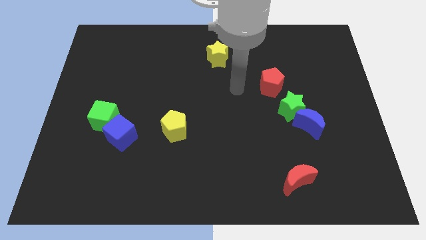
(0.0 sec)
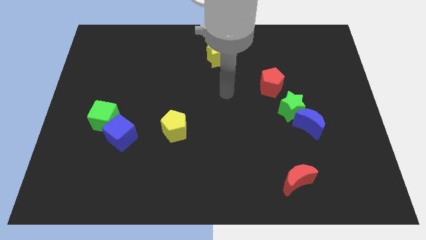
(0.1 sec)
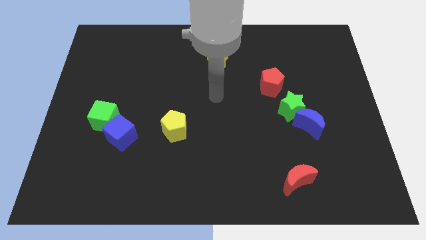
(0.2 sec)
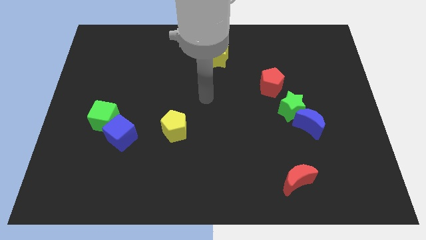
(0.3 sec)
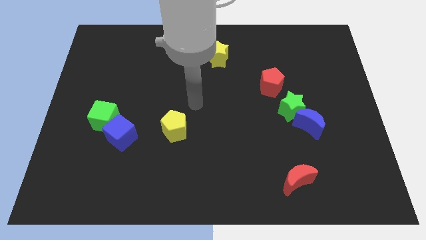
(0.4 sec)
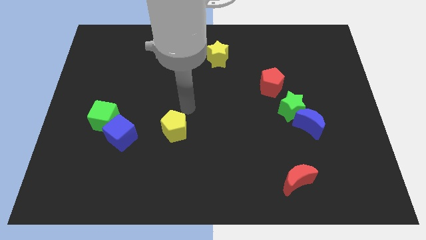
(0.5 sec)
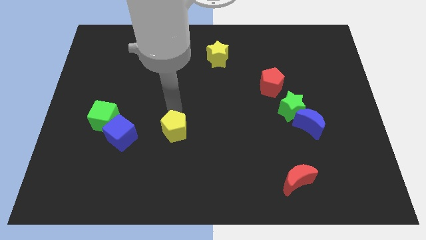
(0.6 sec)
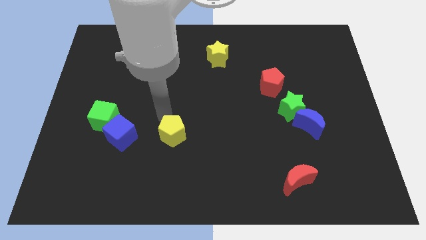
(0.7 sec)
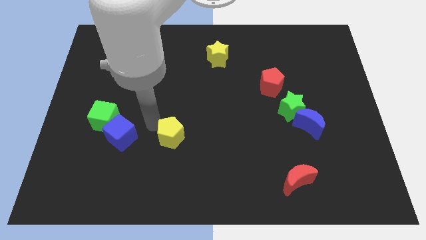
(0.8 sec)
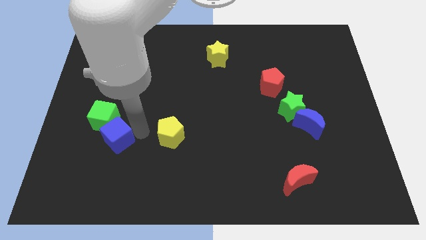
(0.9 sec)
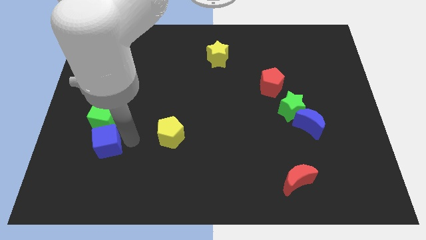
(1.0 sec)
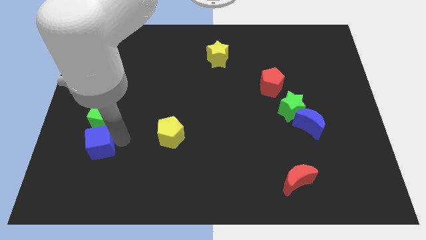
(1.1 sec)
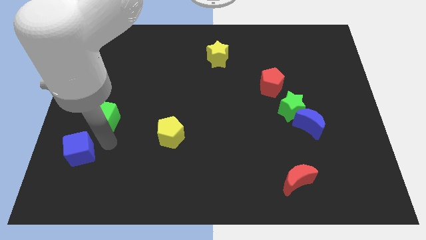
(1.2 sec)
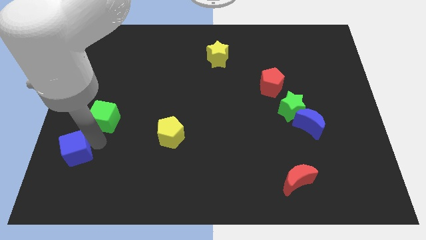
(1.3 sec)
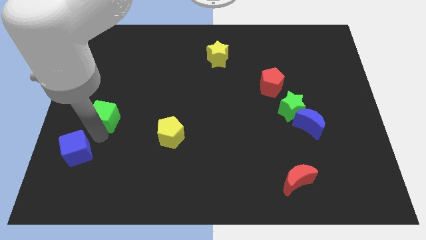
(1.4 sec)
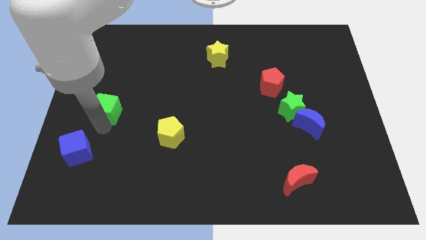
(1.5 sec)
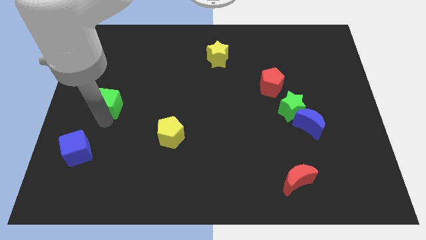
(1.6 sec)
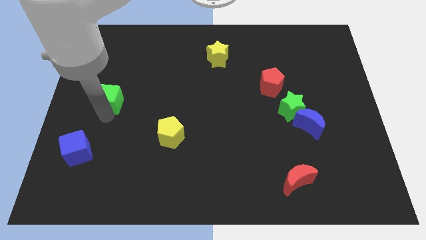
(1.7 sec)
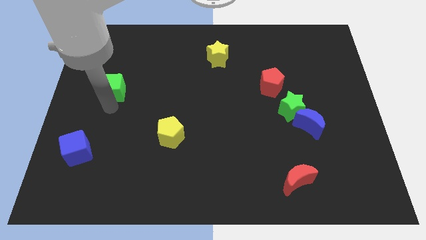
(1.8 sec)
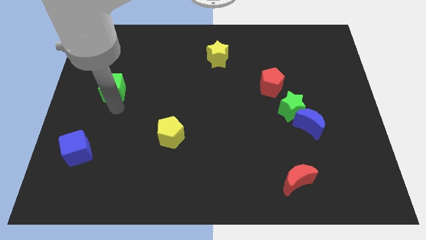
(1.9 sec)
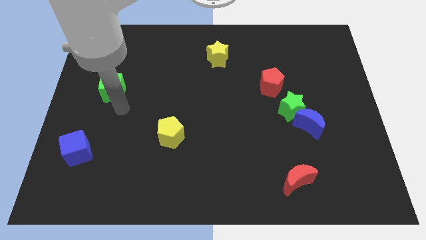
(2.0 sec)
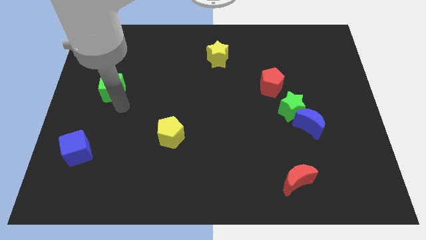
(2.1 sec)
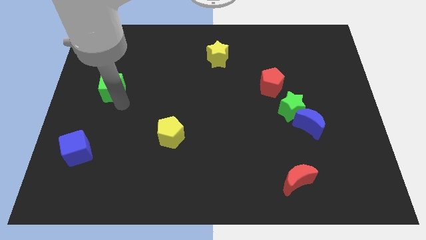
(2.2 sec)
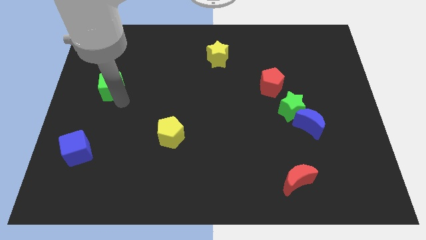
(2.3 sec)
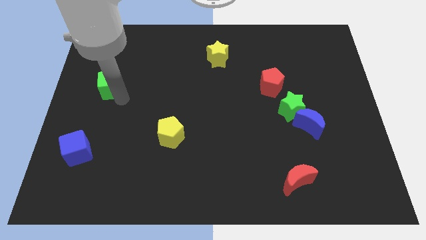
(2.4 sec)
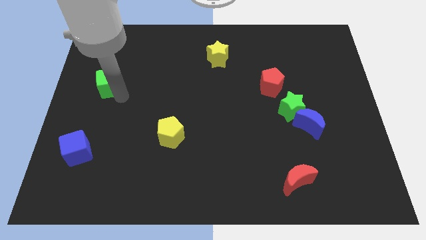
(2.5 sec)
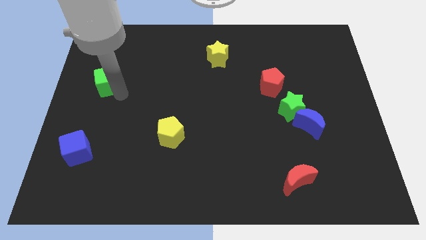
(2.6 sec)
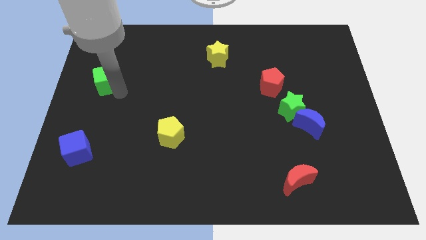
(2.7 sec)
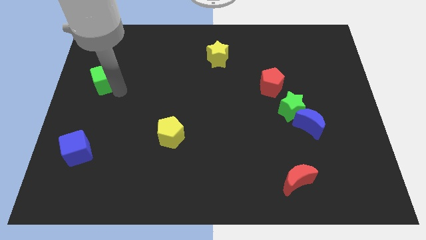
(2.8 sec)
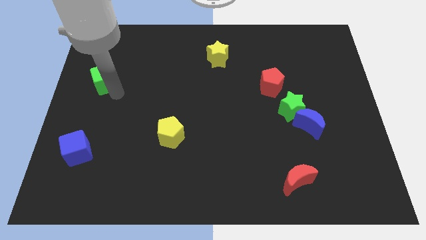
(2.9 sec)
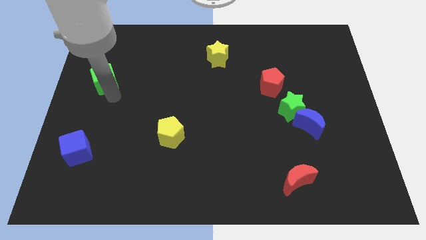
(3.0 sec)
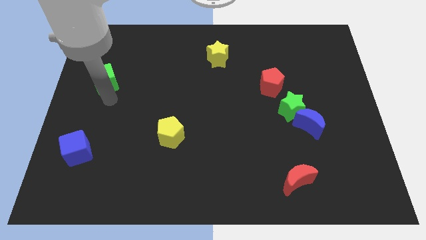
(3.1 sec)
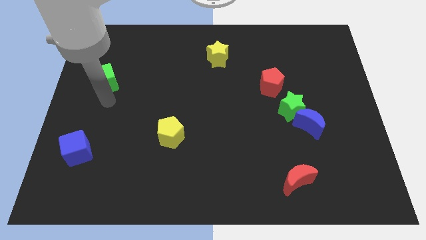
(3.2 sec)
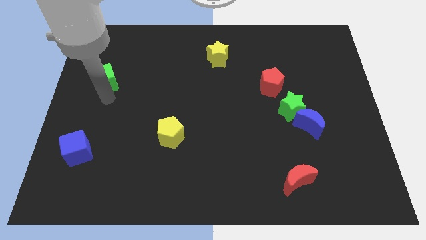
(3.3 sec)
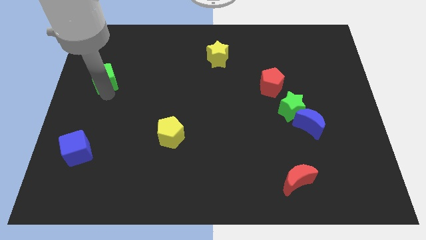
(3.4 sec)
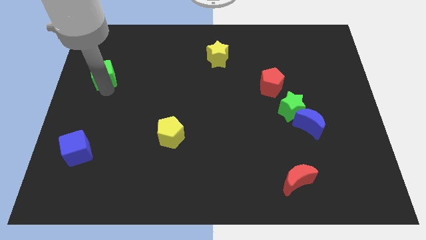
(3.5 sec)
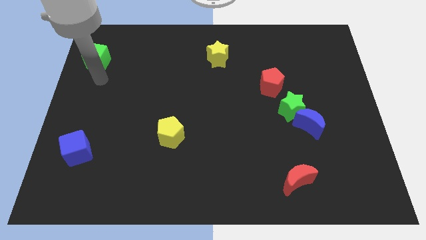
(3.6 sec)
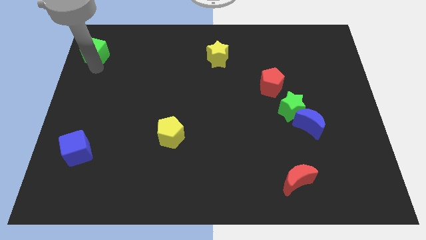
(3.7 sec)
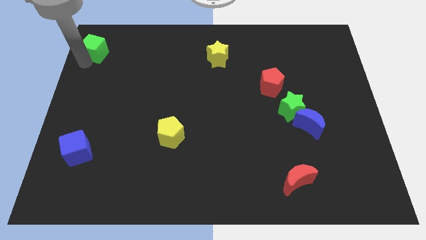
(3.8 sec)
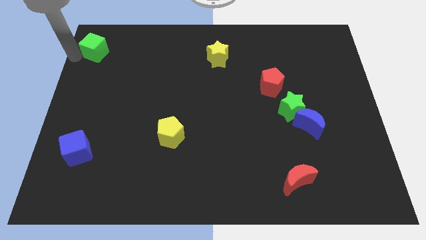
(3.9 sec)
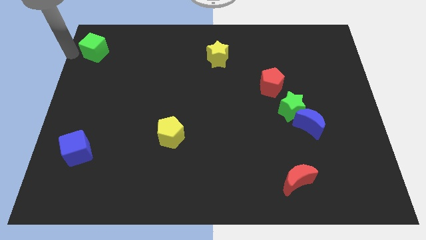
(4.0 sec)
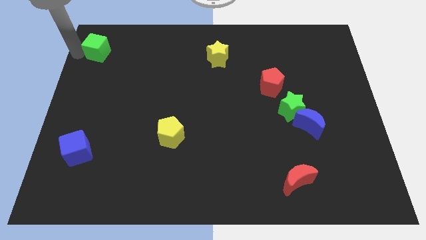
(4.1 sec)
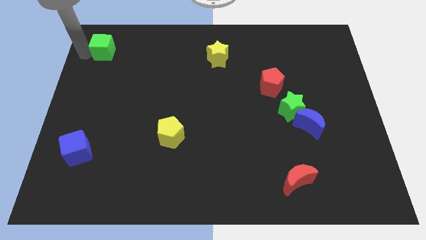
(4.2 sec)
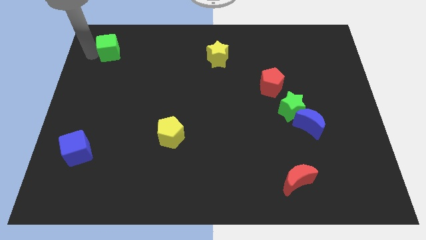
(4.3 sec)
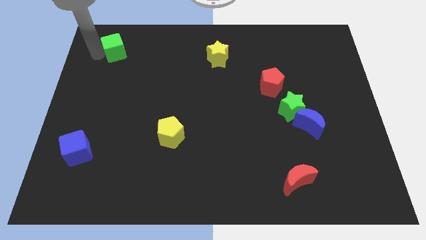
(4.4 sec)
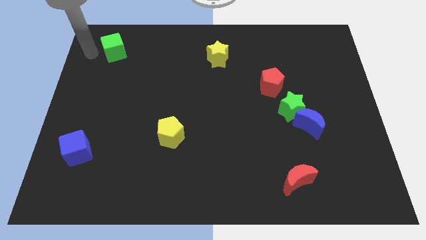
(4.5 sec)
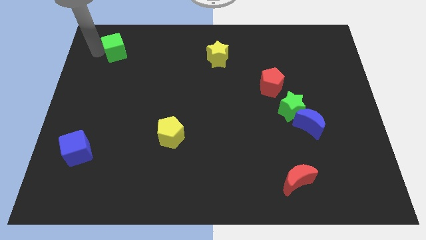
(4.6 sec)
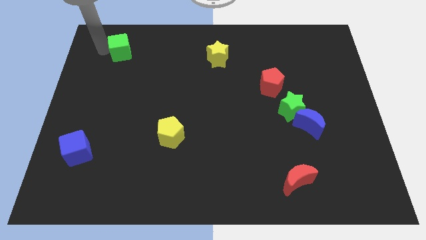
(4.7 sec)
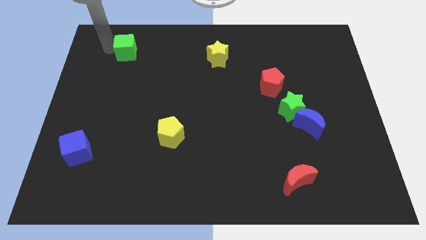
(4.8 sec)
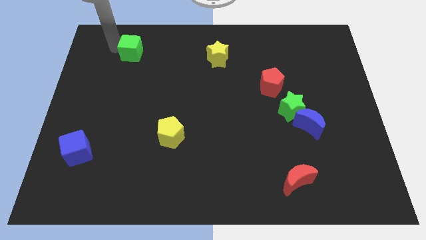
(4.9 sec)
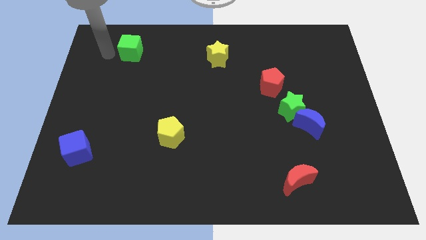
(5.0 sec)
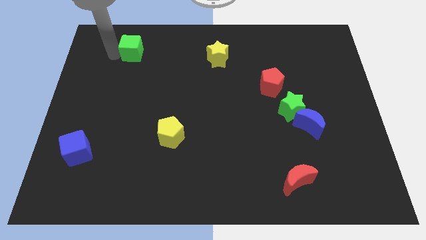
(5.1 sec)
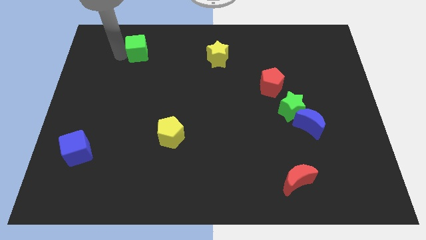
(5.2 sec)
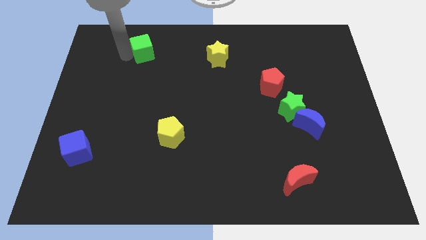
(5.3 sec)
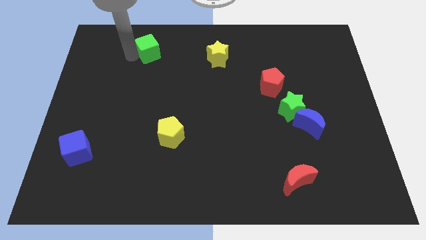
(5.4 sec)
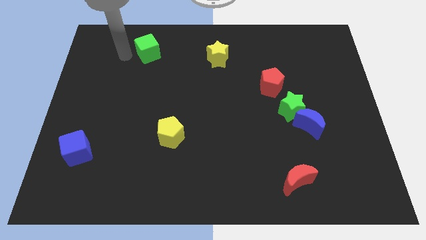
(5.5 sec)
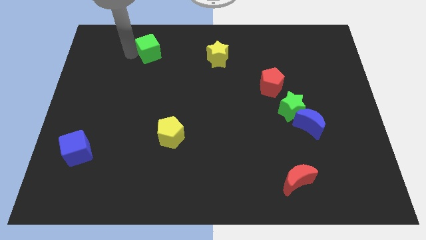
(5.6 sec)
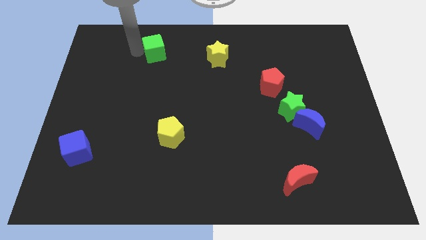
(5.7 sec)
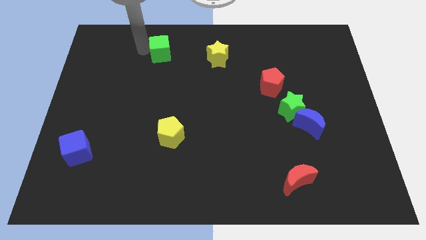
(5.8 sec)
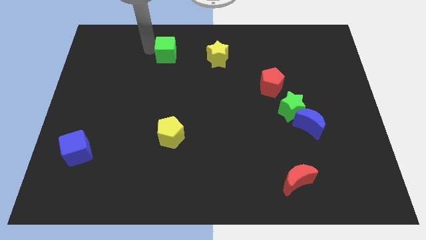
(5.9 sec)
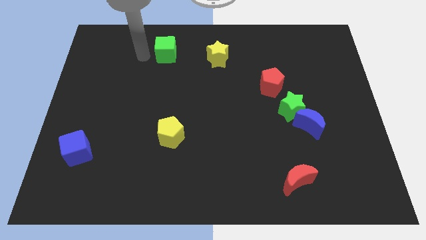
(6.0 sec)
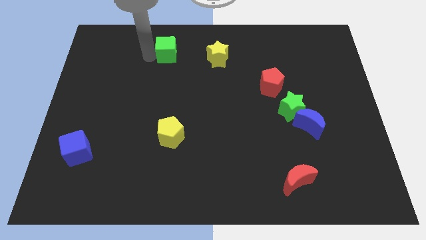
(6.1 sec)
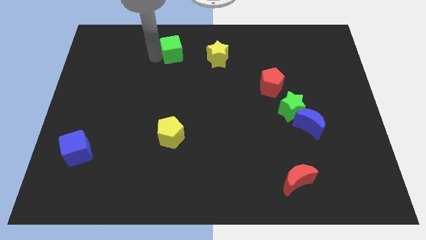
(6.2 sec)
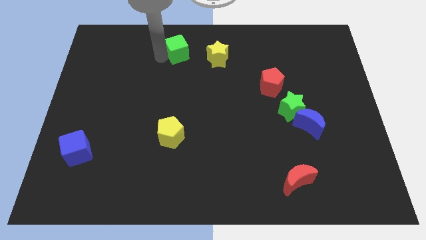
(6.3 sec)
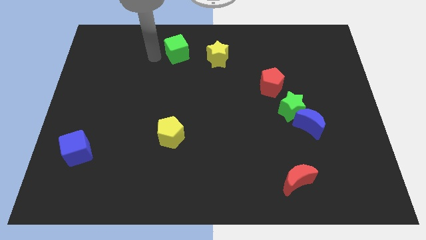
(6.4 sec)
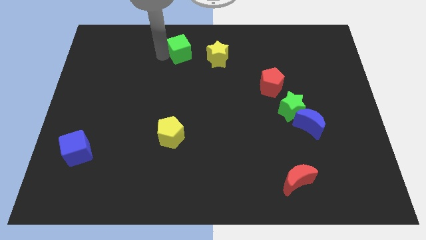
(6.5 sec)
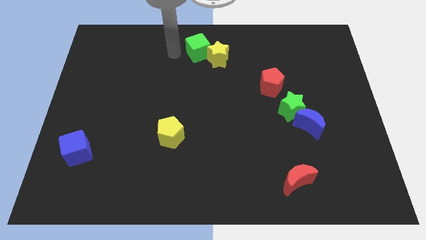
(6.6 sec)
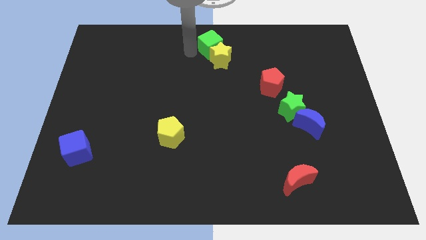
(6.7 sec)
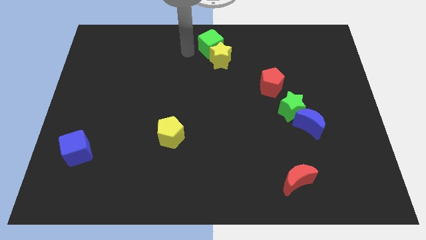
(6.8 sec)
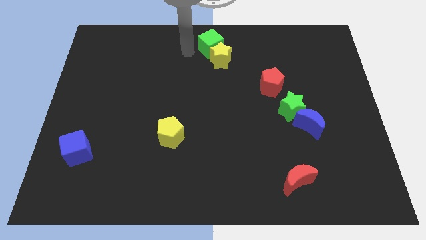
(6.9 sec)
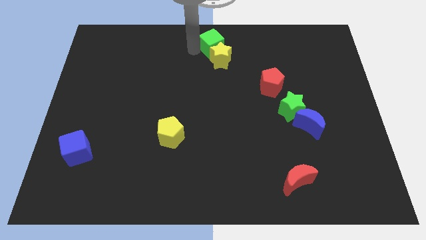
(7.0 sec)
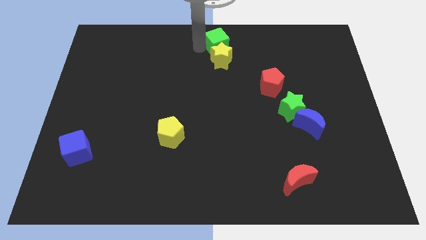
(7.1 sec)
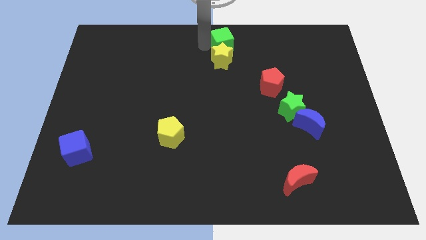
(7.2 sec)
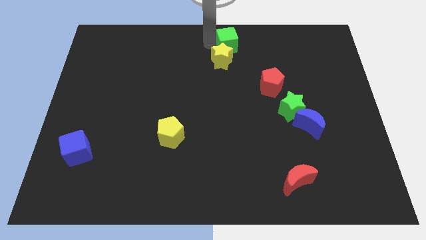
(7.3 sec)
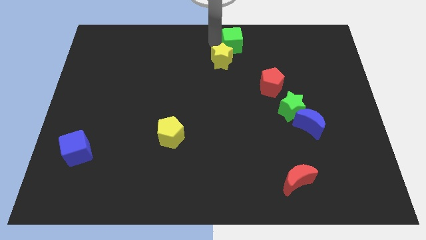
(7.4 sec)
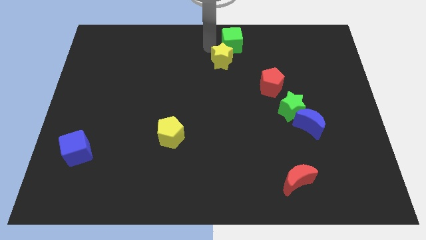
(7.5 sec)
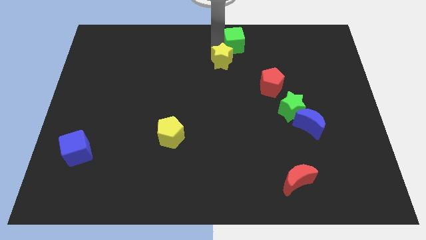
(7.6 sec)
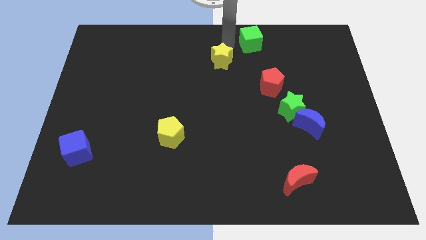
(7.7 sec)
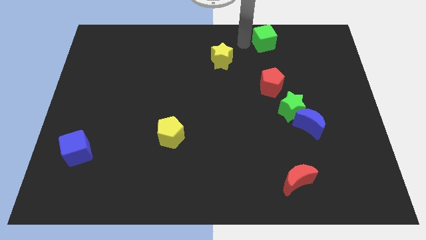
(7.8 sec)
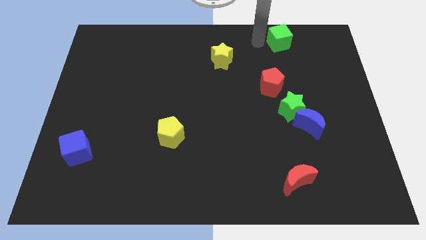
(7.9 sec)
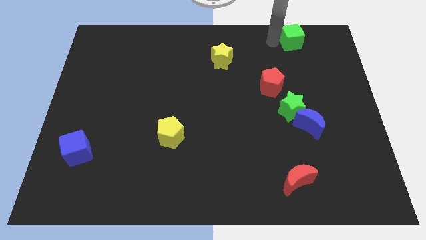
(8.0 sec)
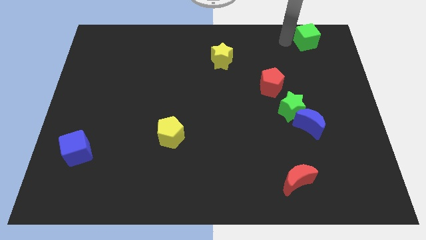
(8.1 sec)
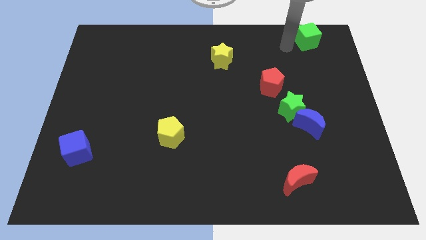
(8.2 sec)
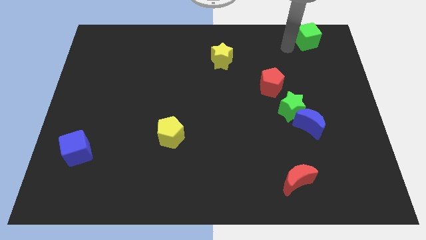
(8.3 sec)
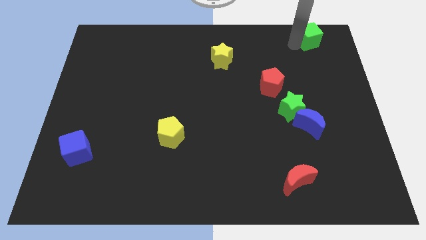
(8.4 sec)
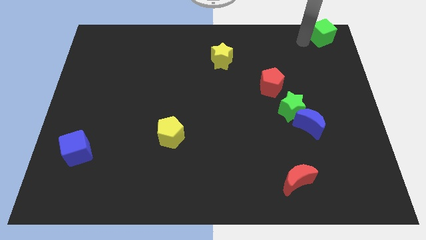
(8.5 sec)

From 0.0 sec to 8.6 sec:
move the green cube to the top right of the board
